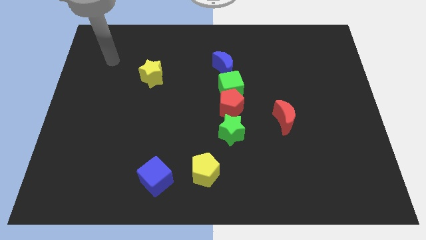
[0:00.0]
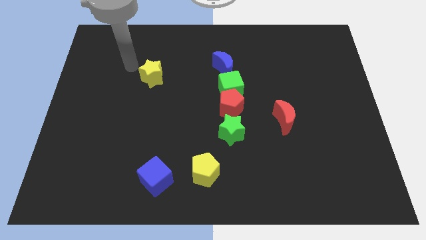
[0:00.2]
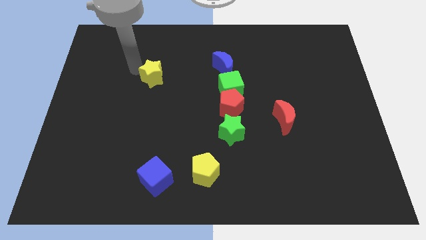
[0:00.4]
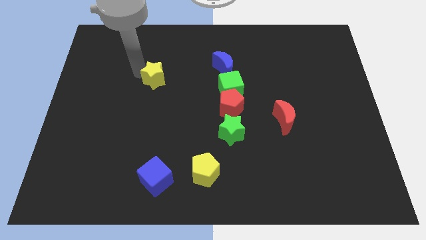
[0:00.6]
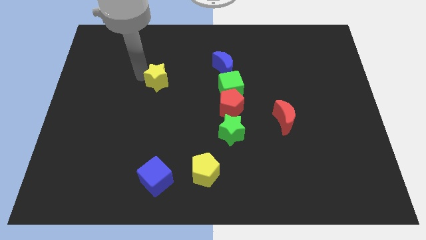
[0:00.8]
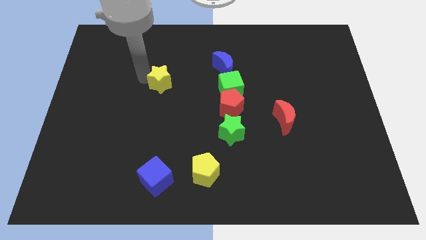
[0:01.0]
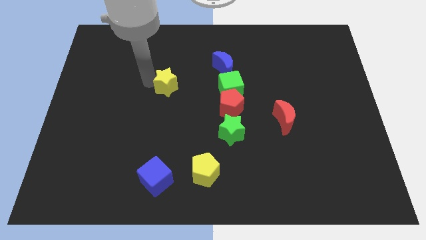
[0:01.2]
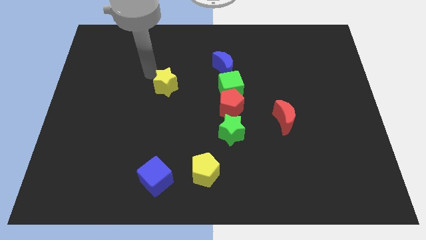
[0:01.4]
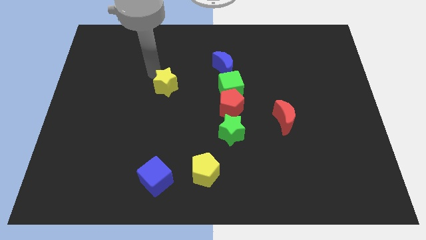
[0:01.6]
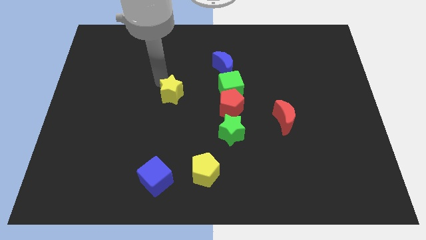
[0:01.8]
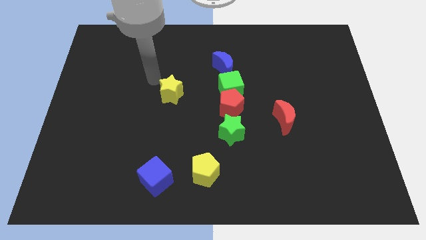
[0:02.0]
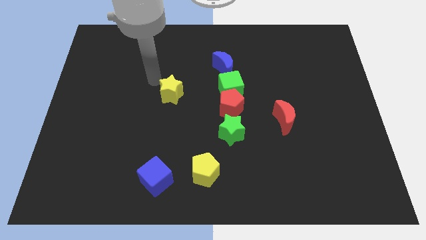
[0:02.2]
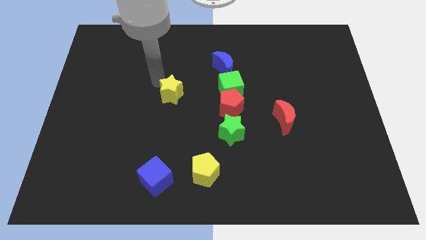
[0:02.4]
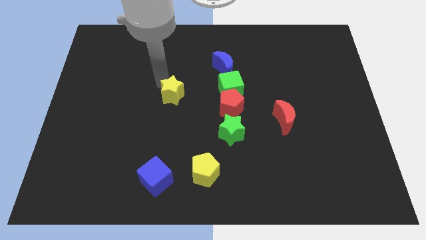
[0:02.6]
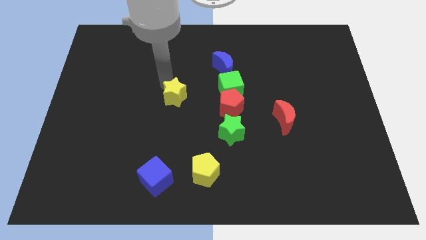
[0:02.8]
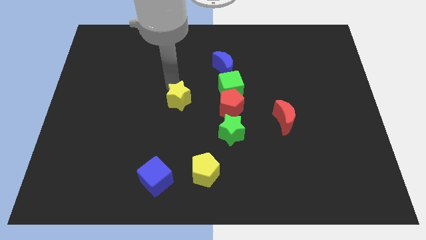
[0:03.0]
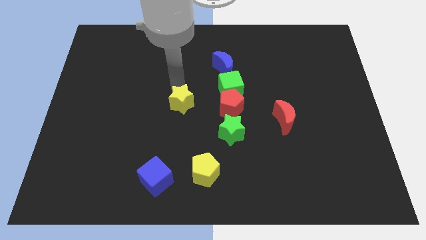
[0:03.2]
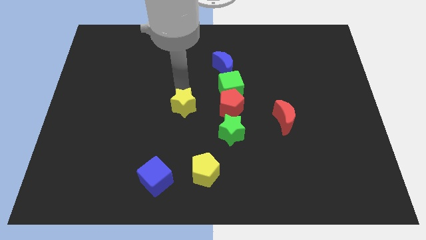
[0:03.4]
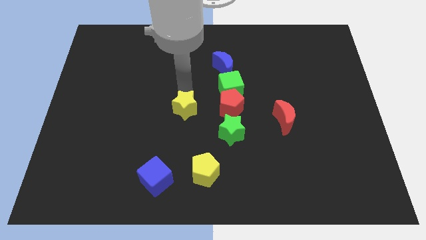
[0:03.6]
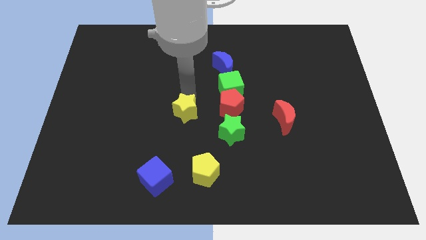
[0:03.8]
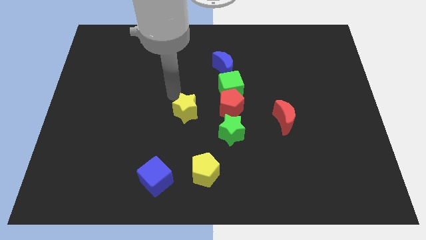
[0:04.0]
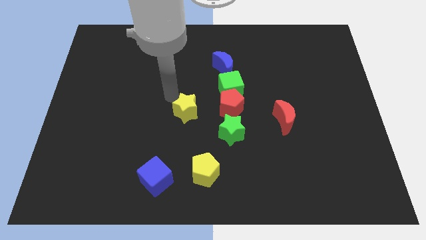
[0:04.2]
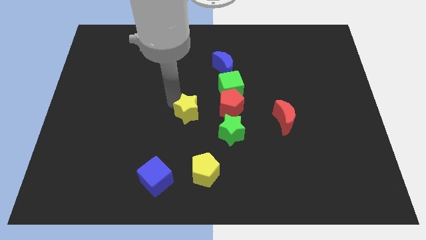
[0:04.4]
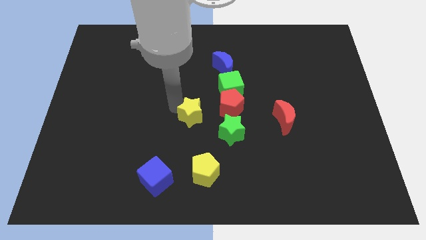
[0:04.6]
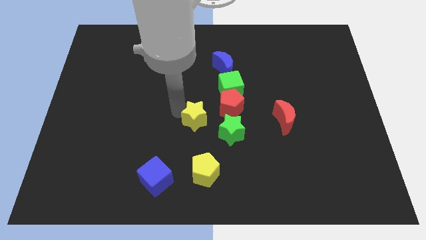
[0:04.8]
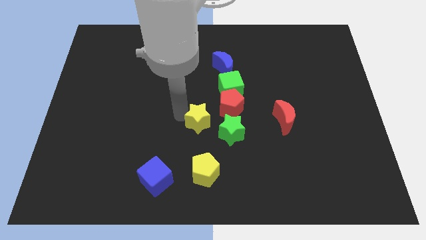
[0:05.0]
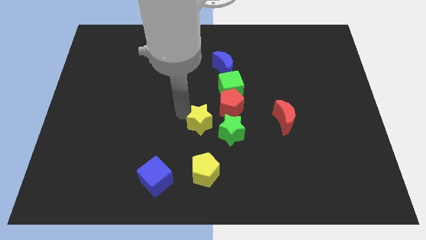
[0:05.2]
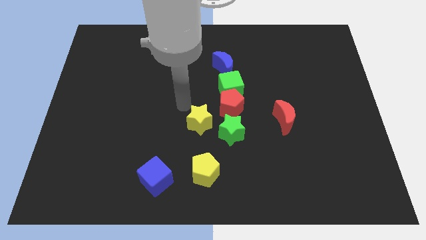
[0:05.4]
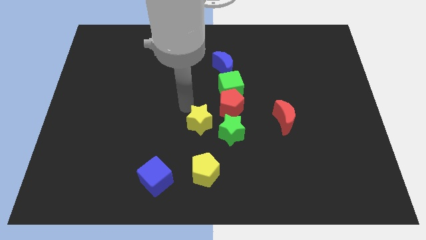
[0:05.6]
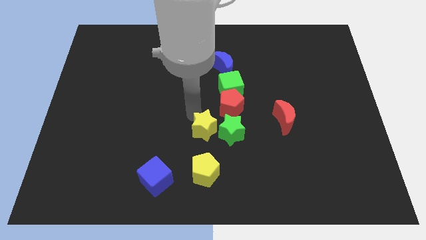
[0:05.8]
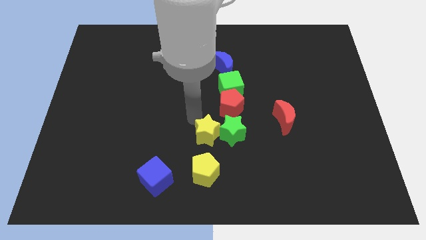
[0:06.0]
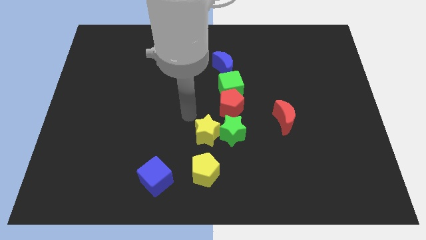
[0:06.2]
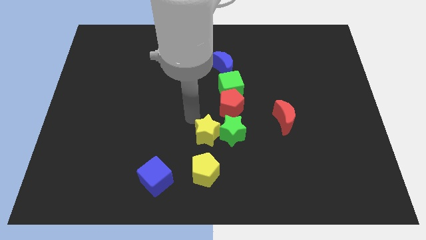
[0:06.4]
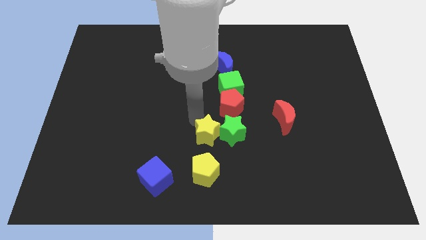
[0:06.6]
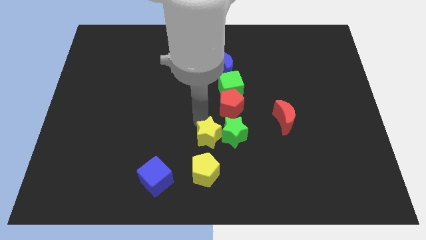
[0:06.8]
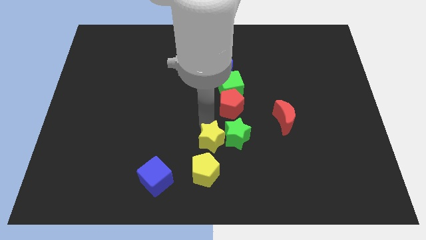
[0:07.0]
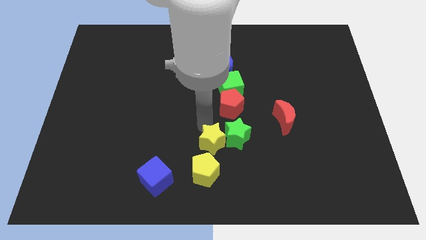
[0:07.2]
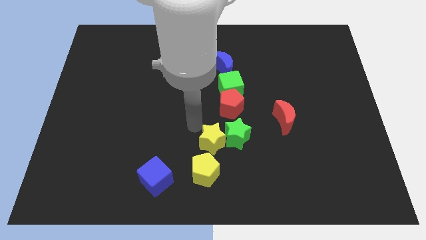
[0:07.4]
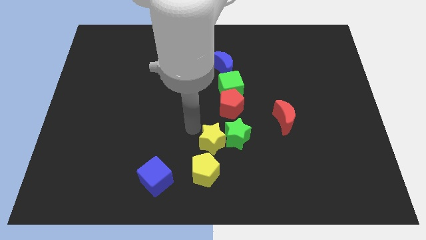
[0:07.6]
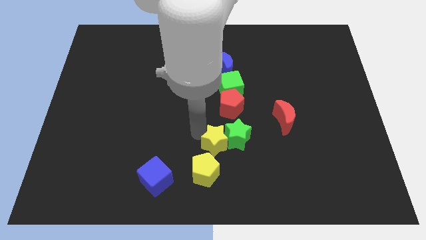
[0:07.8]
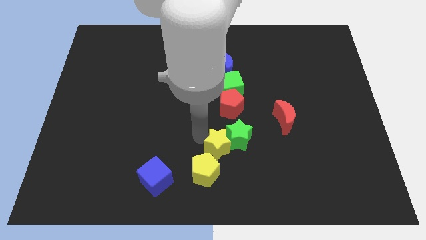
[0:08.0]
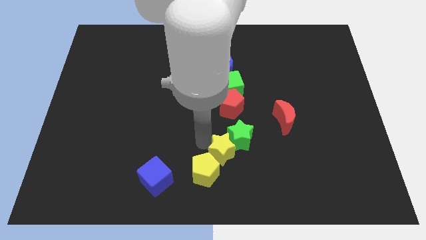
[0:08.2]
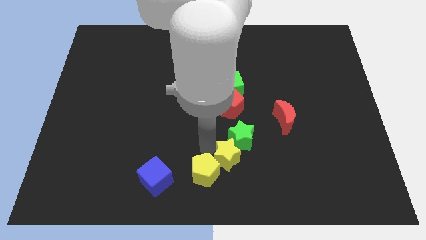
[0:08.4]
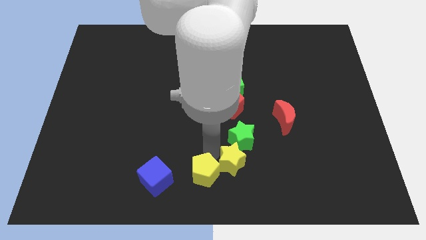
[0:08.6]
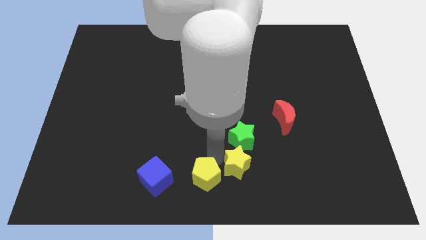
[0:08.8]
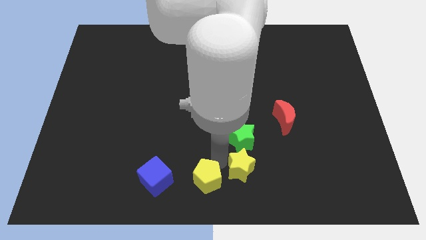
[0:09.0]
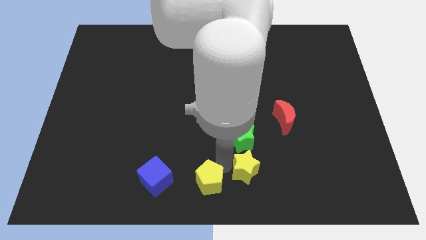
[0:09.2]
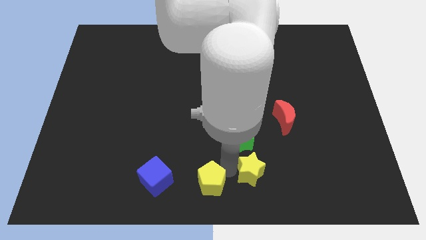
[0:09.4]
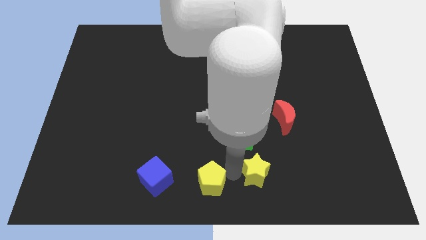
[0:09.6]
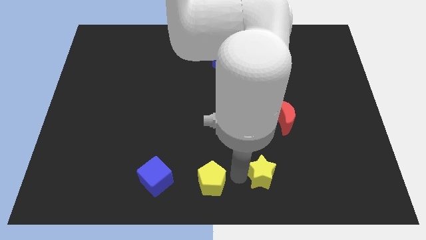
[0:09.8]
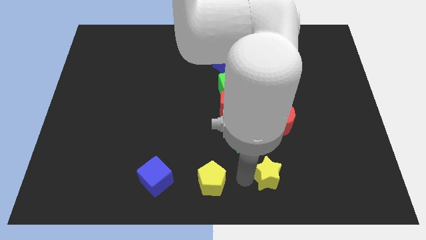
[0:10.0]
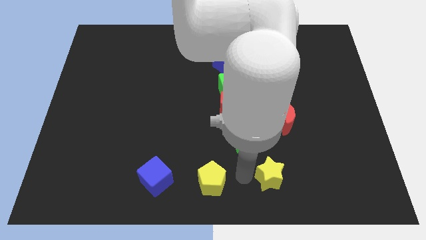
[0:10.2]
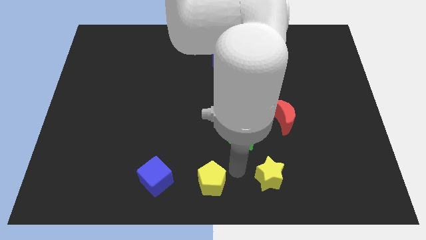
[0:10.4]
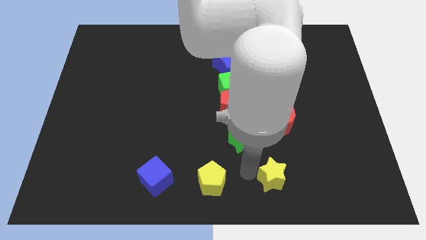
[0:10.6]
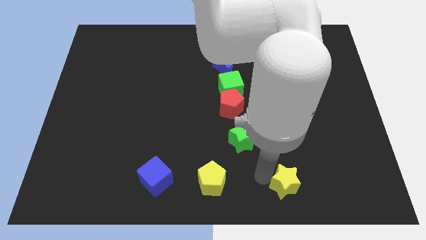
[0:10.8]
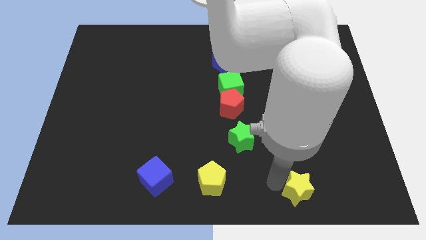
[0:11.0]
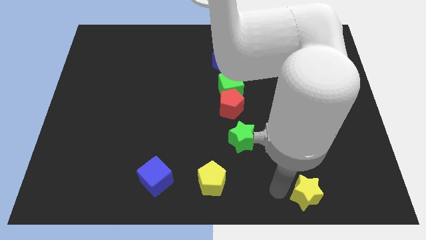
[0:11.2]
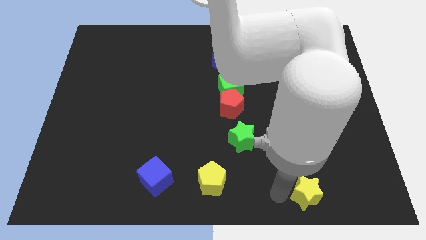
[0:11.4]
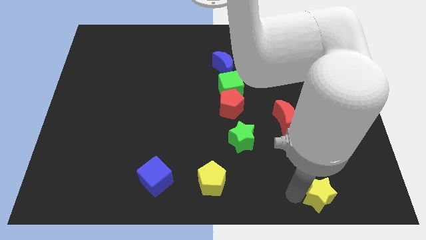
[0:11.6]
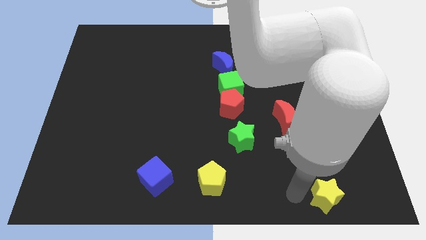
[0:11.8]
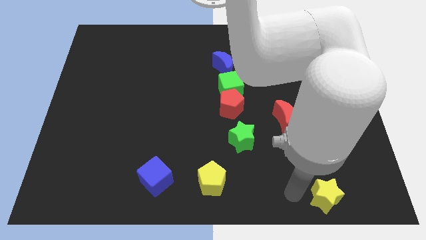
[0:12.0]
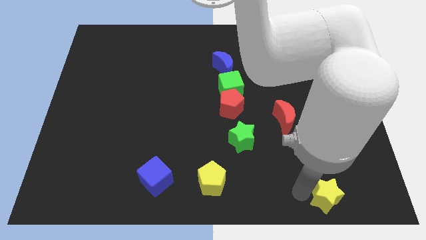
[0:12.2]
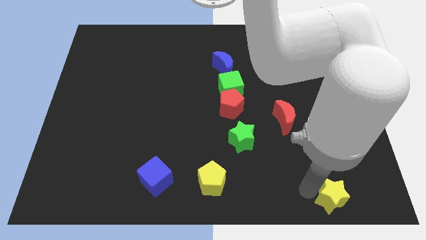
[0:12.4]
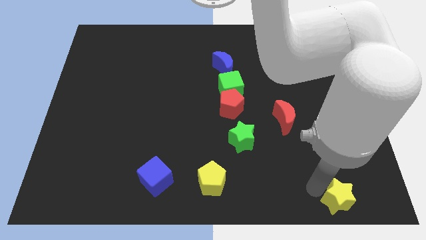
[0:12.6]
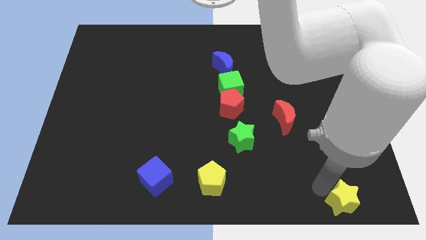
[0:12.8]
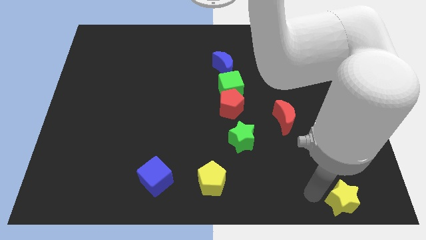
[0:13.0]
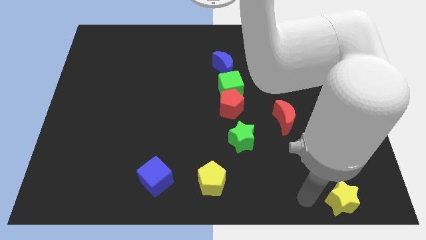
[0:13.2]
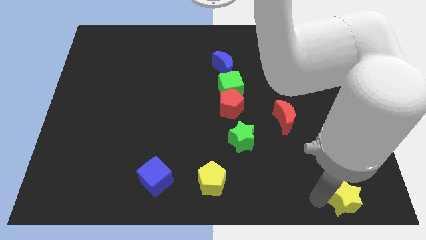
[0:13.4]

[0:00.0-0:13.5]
push the yellow star to the lower right corner
